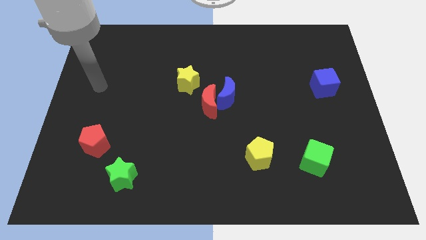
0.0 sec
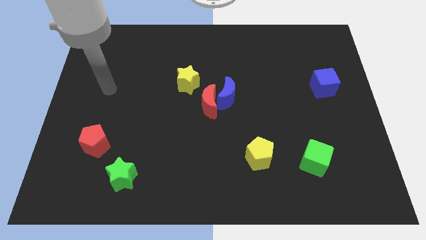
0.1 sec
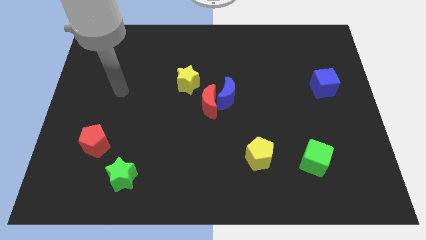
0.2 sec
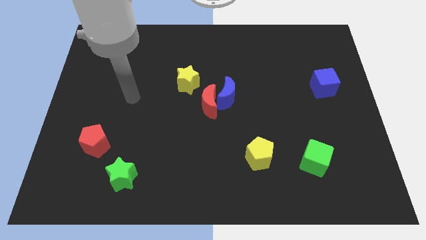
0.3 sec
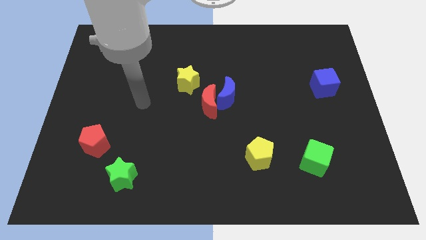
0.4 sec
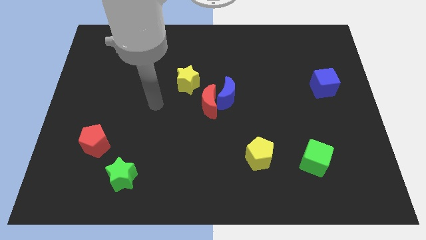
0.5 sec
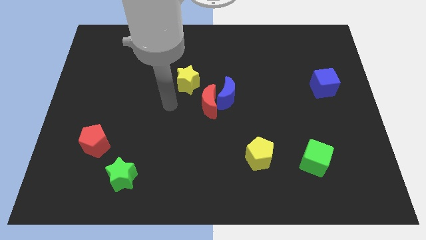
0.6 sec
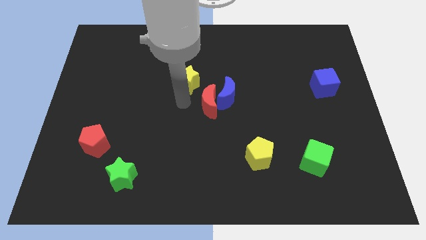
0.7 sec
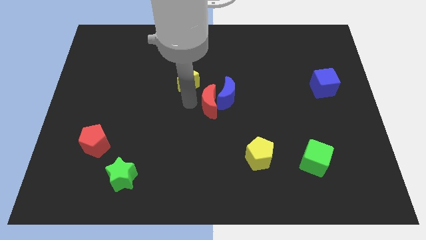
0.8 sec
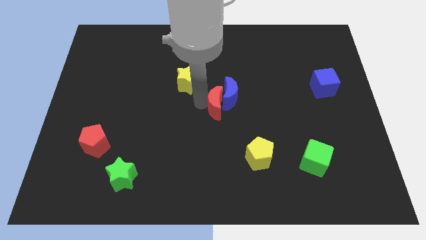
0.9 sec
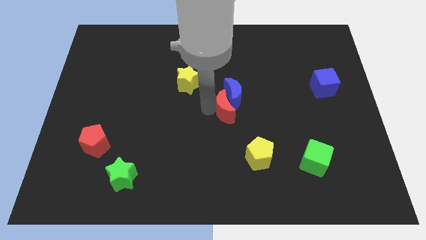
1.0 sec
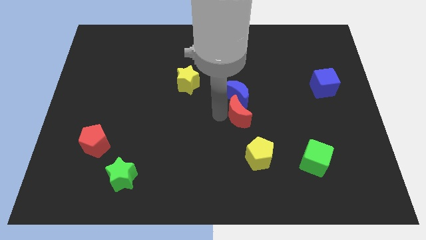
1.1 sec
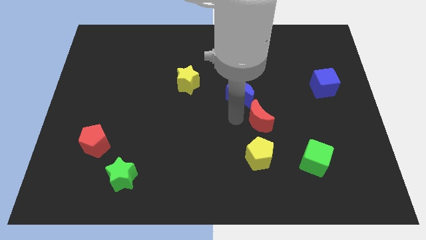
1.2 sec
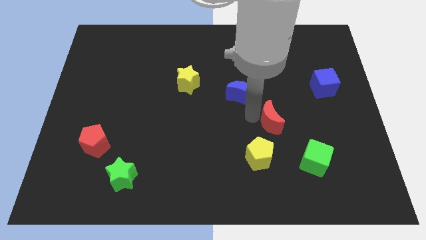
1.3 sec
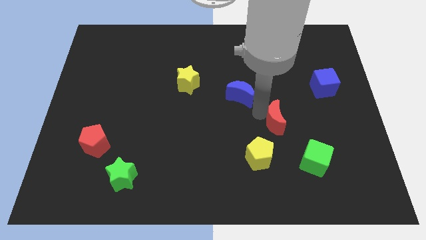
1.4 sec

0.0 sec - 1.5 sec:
move the blue moon away from the red moon

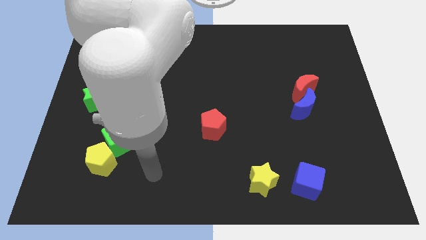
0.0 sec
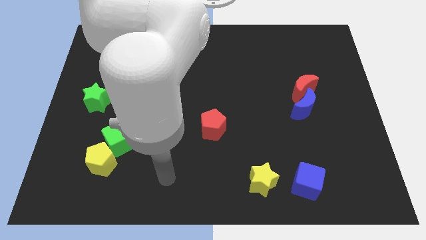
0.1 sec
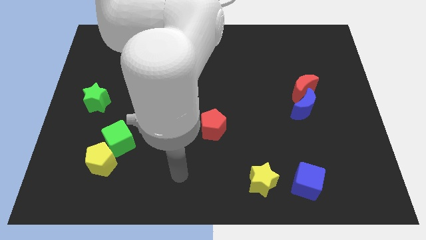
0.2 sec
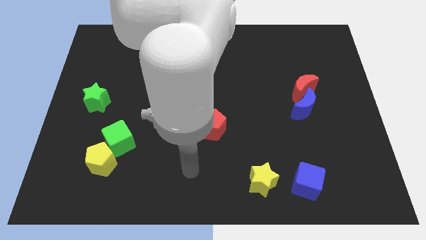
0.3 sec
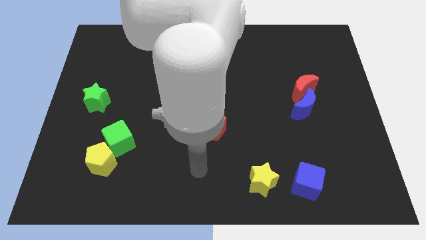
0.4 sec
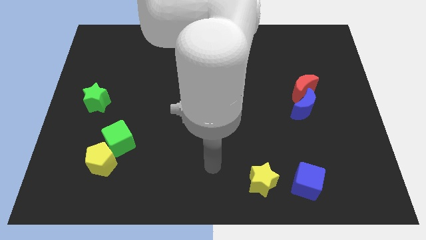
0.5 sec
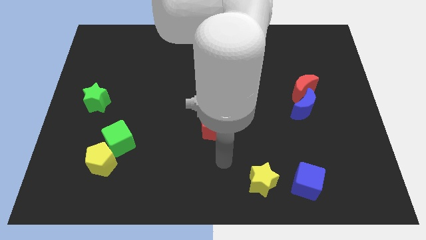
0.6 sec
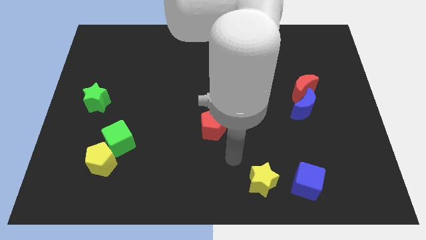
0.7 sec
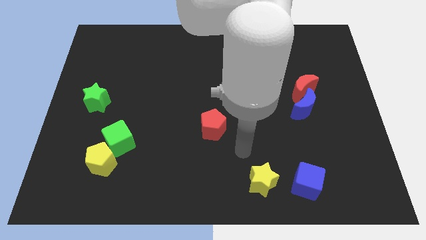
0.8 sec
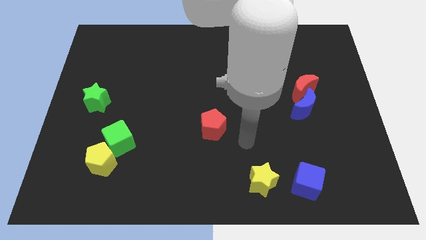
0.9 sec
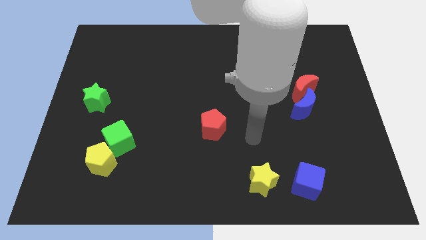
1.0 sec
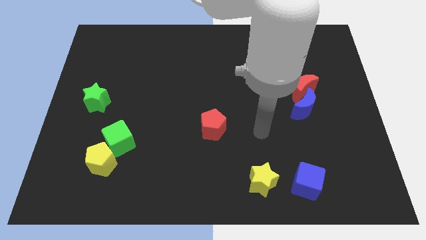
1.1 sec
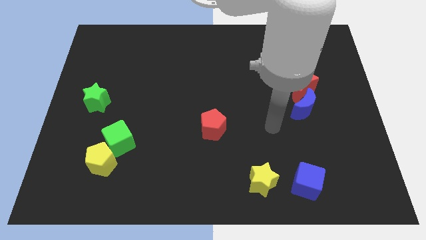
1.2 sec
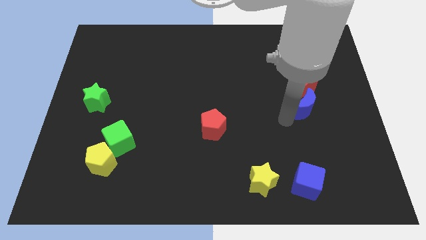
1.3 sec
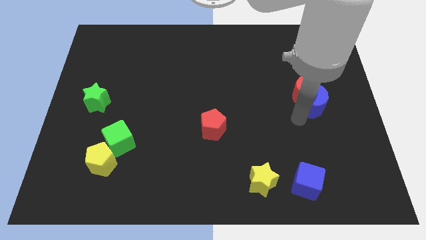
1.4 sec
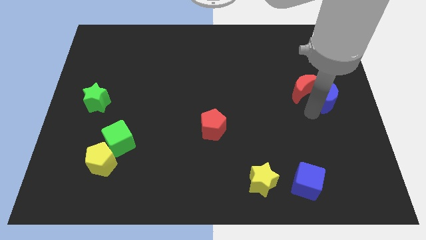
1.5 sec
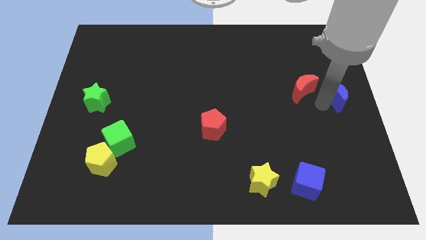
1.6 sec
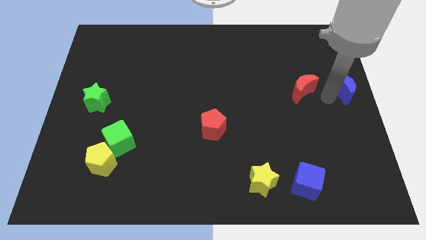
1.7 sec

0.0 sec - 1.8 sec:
pull the red moon apart from the blue moon

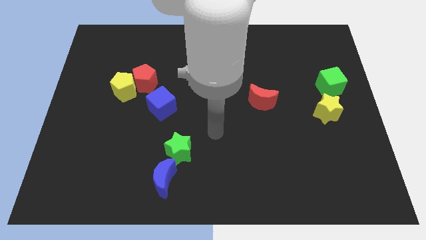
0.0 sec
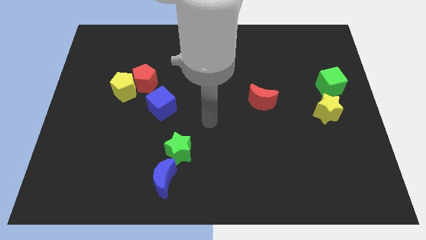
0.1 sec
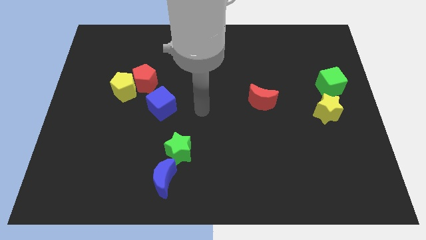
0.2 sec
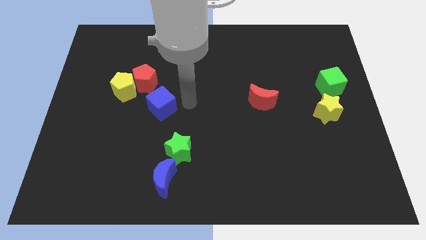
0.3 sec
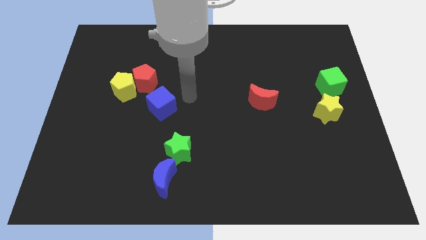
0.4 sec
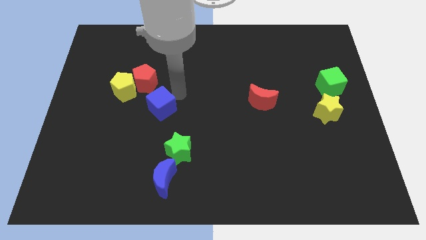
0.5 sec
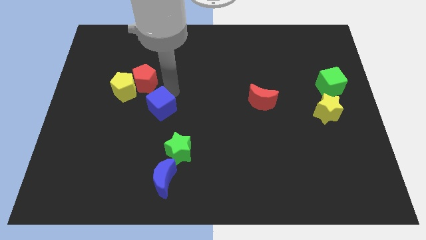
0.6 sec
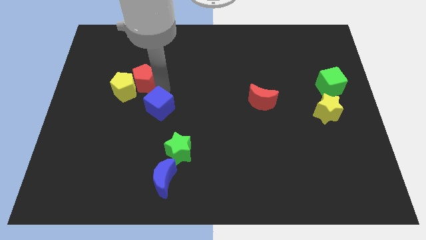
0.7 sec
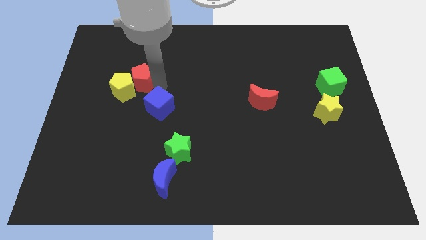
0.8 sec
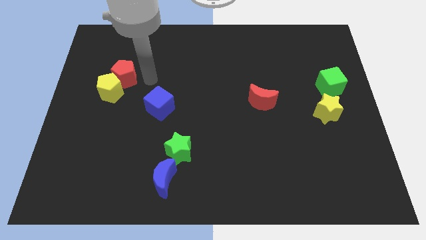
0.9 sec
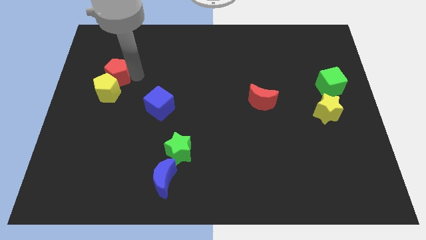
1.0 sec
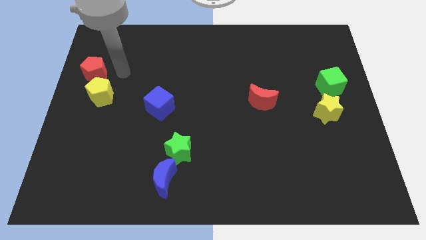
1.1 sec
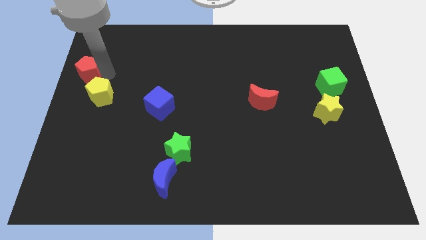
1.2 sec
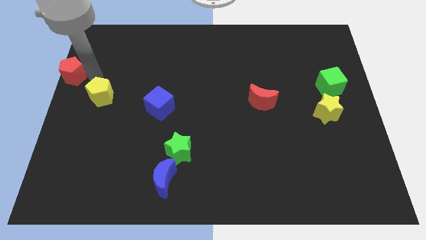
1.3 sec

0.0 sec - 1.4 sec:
pull the yellow pentagon apart from the red pentagon

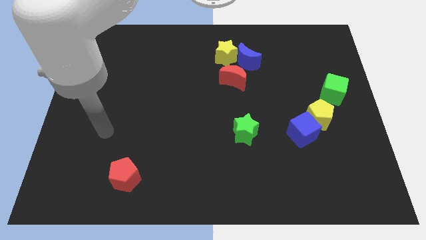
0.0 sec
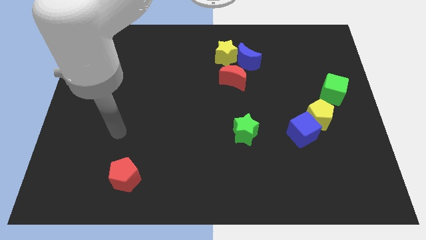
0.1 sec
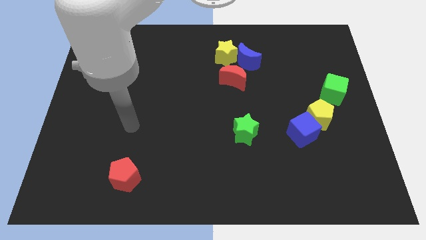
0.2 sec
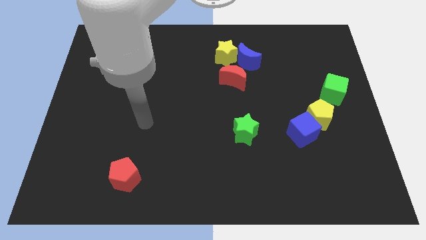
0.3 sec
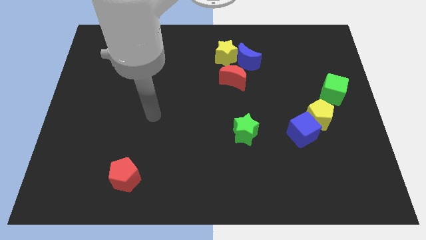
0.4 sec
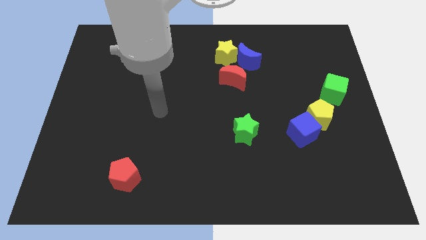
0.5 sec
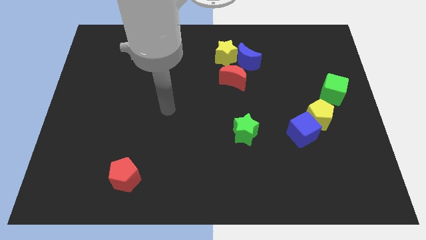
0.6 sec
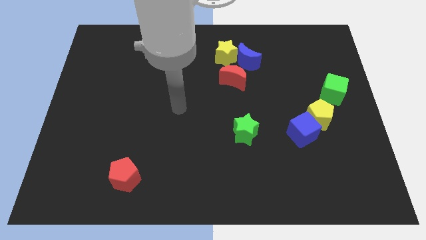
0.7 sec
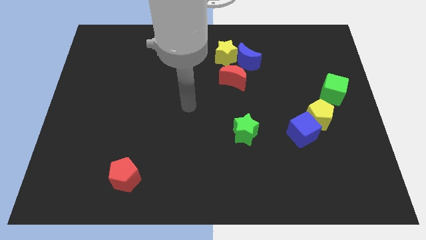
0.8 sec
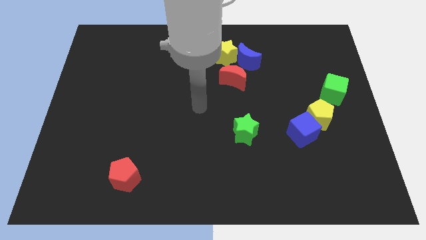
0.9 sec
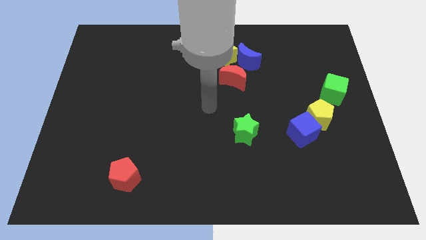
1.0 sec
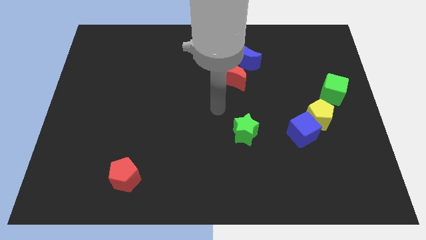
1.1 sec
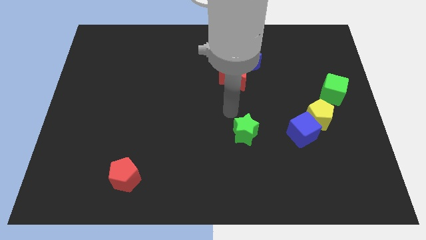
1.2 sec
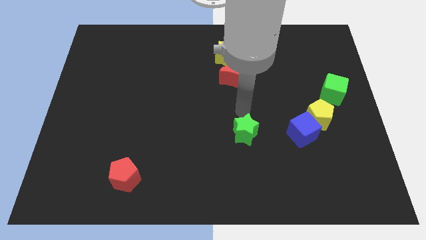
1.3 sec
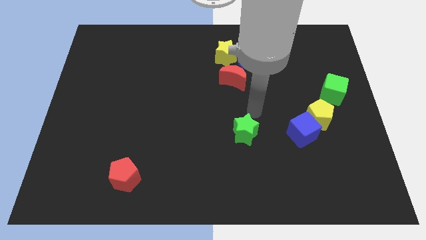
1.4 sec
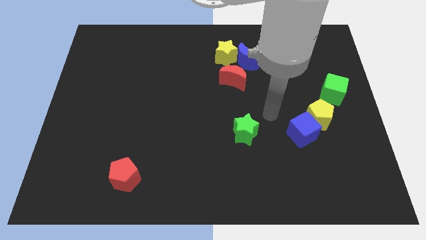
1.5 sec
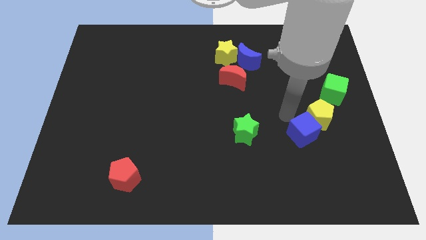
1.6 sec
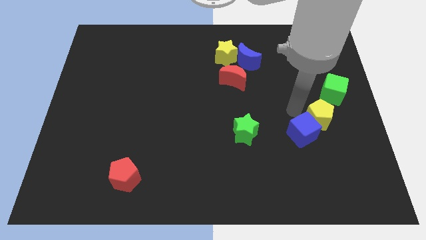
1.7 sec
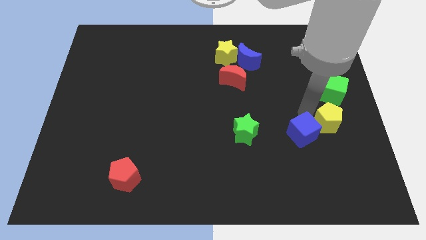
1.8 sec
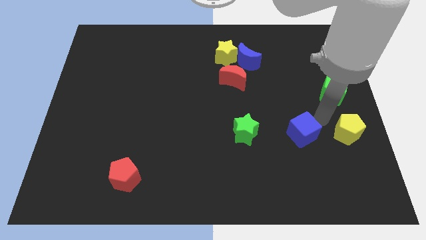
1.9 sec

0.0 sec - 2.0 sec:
move the blue cube away from the yellow pentagon

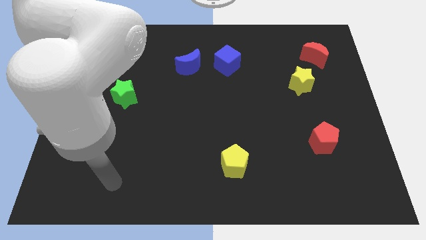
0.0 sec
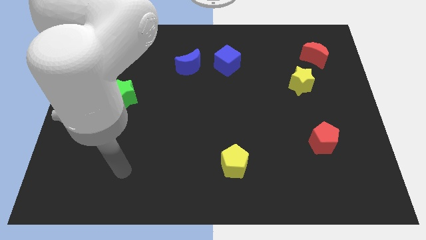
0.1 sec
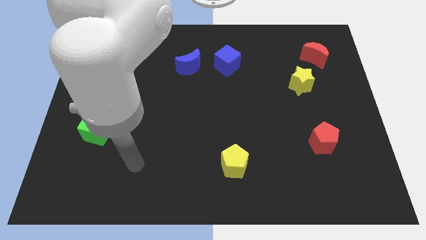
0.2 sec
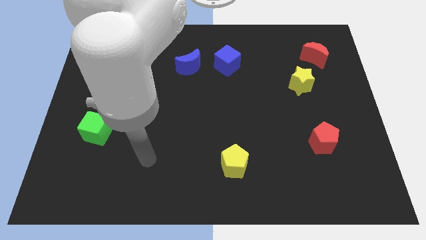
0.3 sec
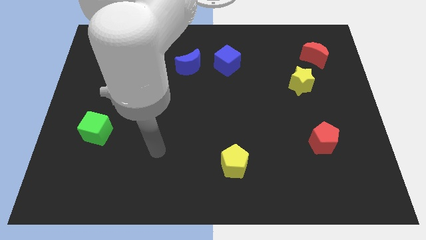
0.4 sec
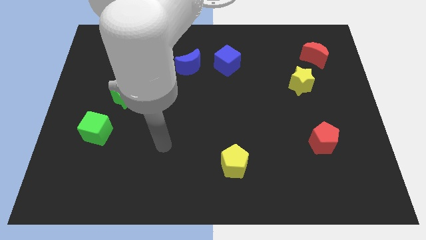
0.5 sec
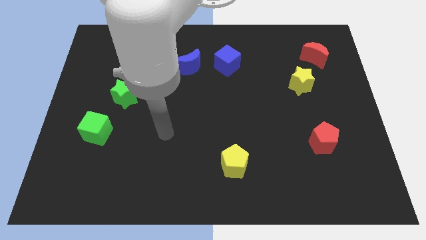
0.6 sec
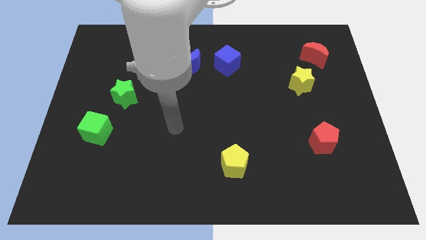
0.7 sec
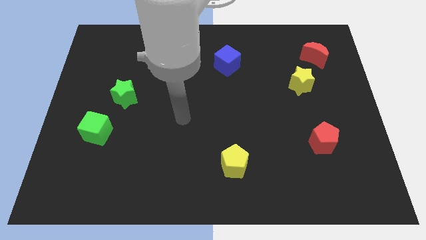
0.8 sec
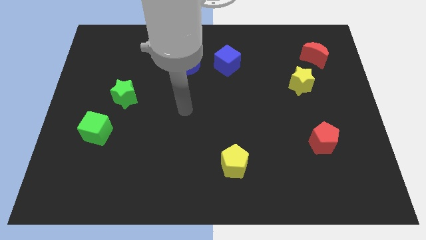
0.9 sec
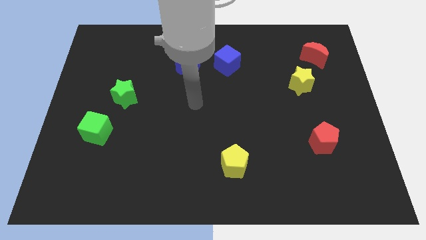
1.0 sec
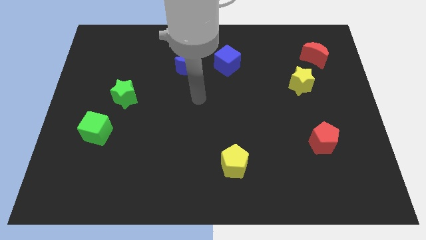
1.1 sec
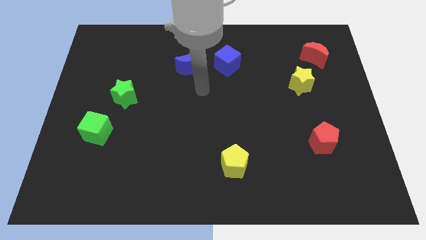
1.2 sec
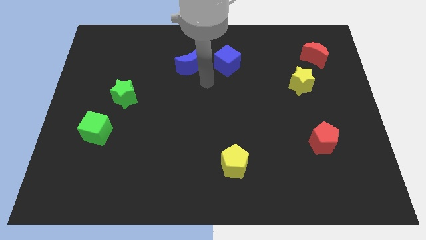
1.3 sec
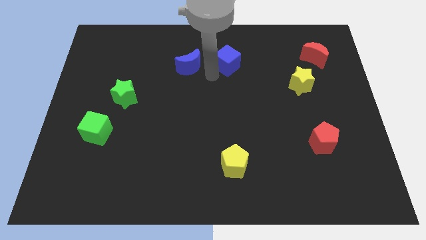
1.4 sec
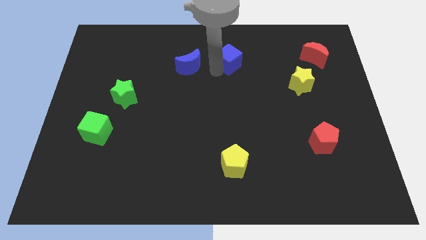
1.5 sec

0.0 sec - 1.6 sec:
pull the blue moon apart from the blue cube

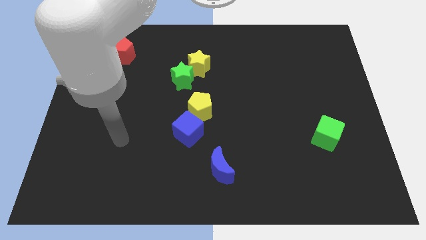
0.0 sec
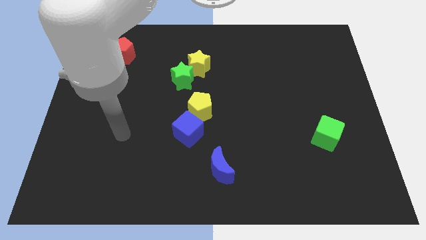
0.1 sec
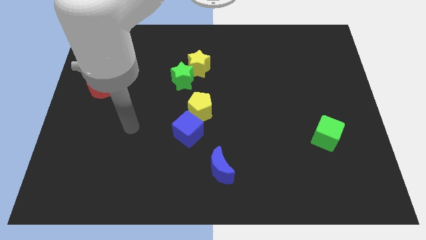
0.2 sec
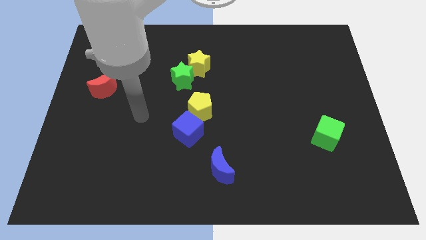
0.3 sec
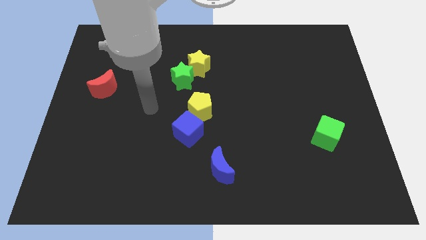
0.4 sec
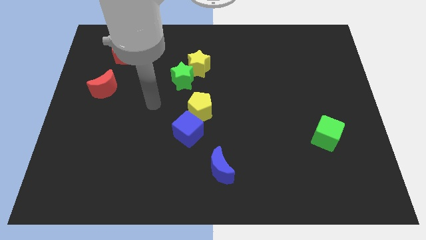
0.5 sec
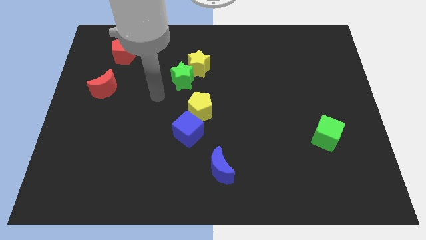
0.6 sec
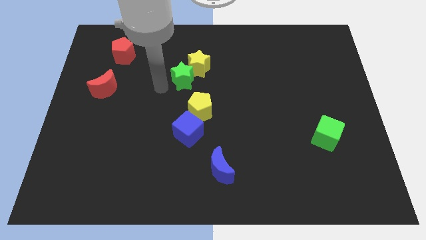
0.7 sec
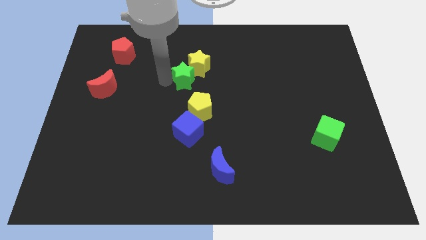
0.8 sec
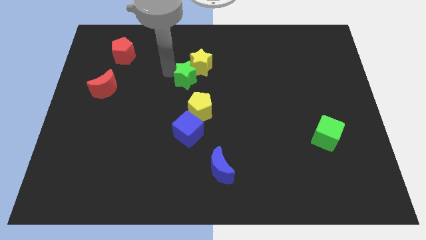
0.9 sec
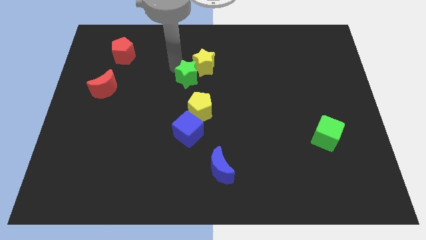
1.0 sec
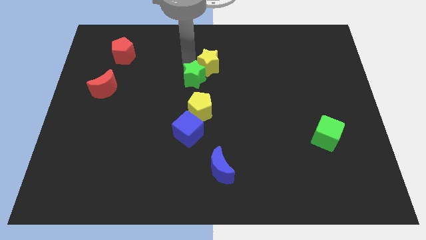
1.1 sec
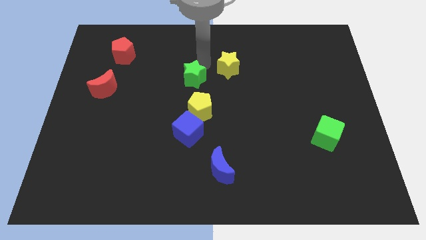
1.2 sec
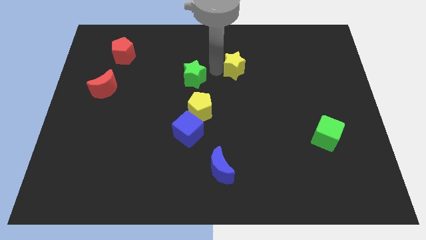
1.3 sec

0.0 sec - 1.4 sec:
separate the green star from the yellow star
